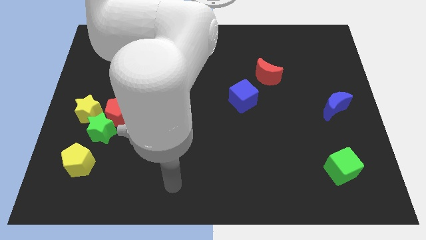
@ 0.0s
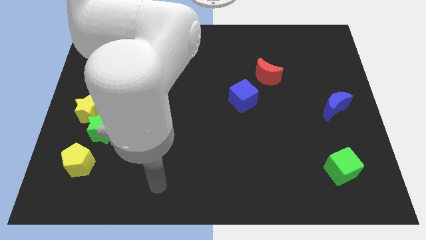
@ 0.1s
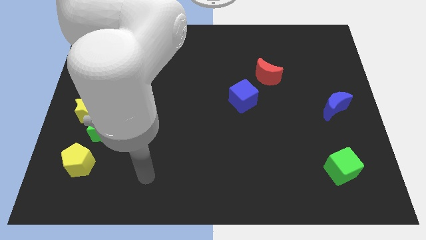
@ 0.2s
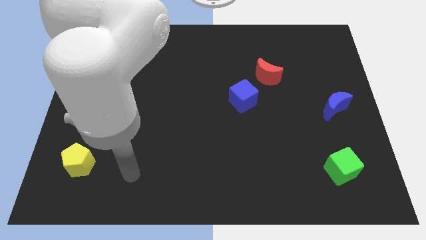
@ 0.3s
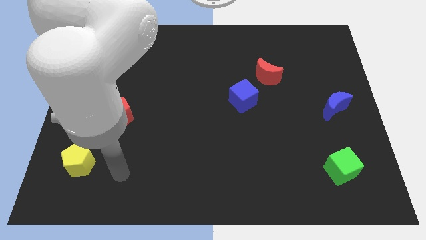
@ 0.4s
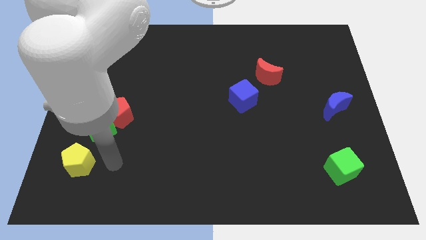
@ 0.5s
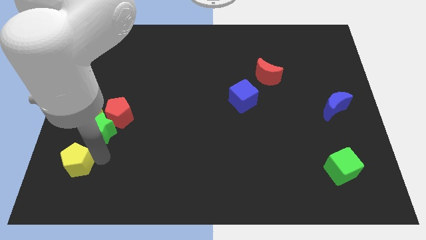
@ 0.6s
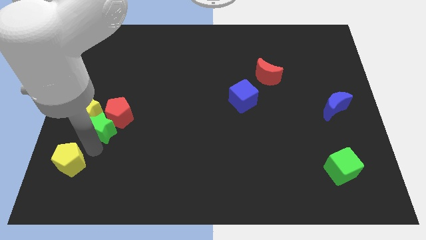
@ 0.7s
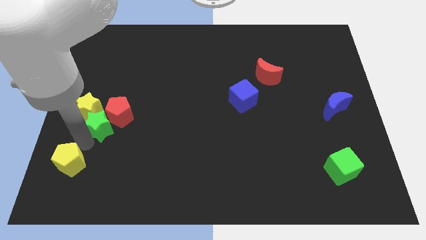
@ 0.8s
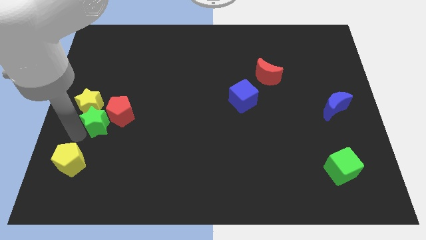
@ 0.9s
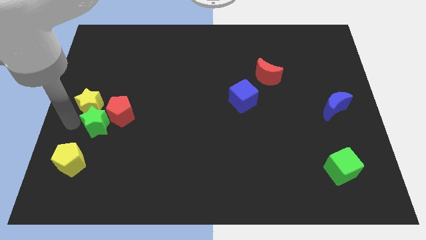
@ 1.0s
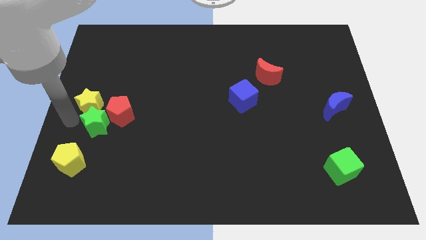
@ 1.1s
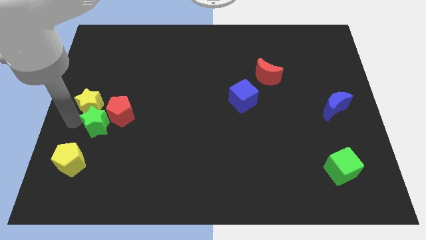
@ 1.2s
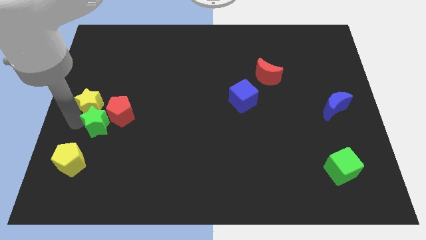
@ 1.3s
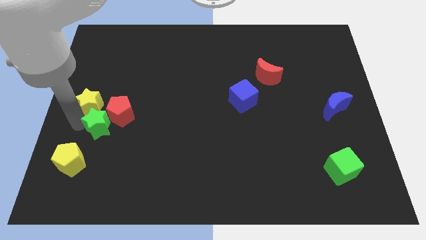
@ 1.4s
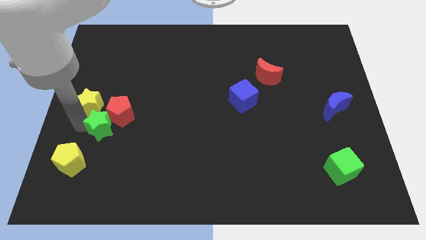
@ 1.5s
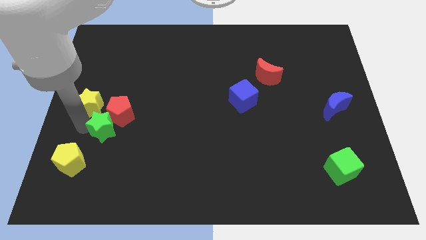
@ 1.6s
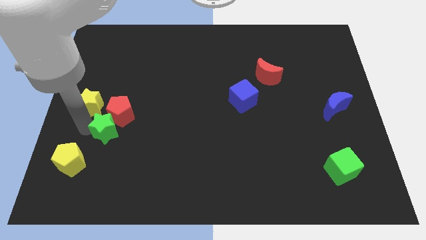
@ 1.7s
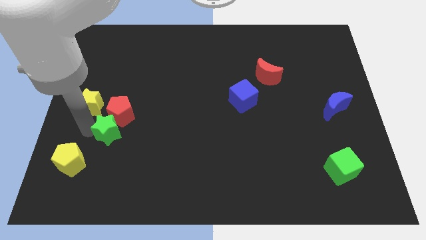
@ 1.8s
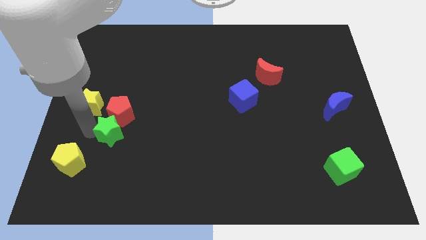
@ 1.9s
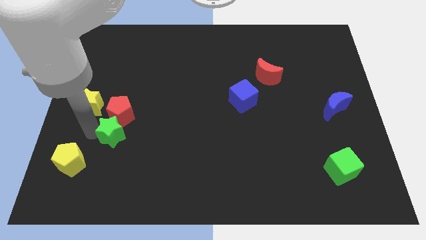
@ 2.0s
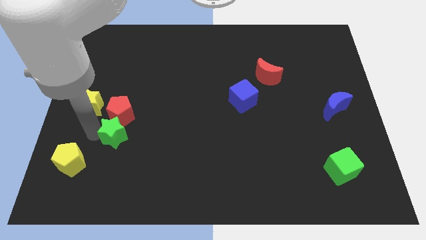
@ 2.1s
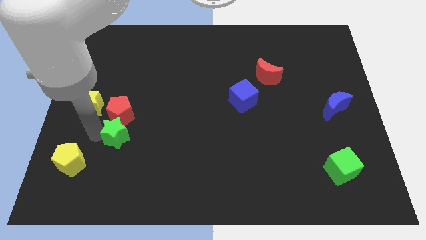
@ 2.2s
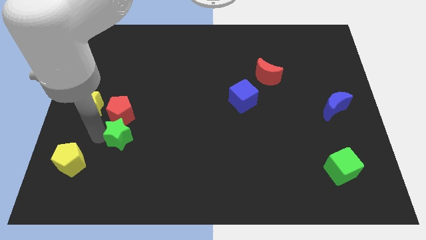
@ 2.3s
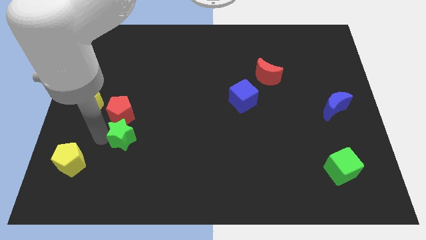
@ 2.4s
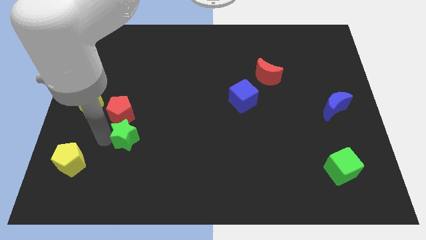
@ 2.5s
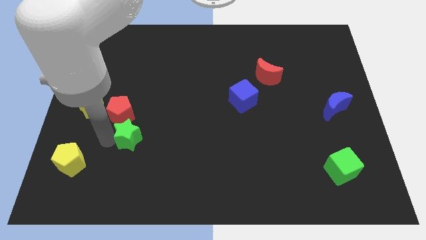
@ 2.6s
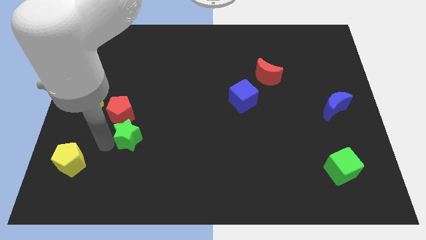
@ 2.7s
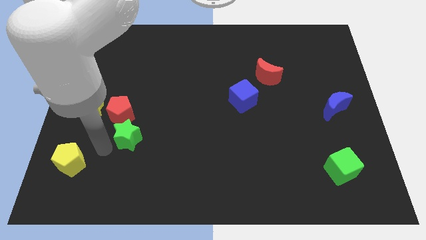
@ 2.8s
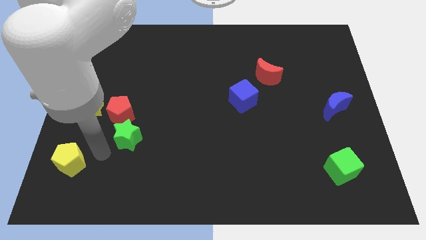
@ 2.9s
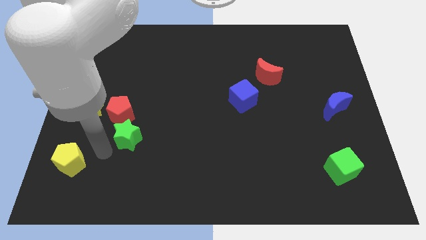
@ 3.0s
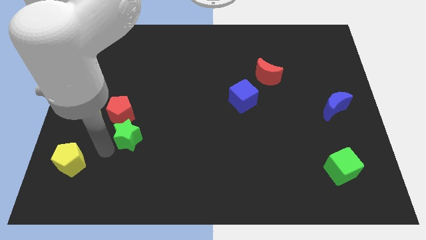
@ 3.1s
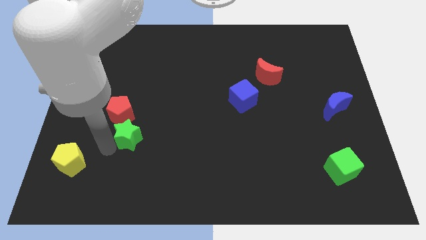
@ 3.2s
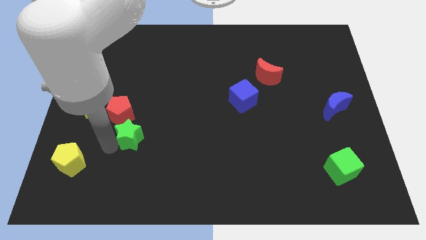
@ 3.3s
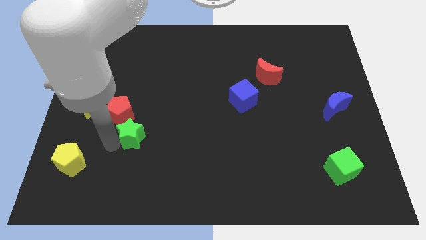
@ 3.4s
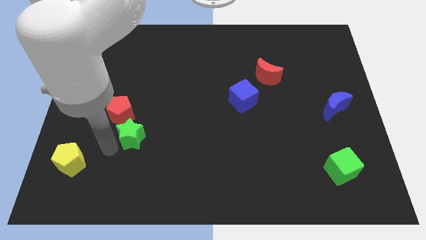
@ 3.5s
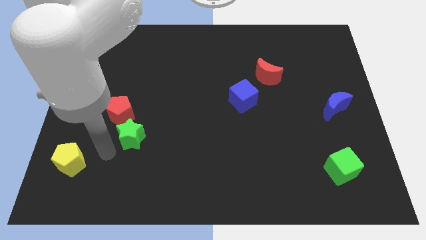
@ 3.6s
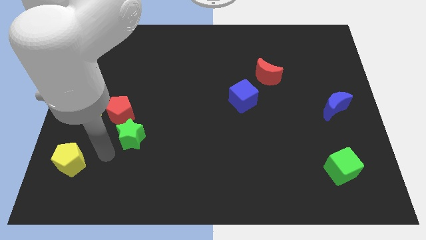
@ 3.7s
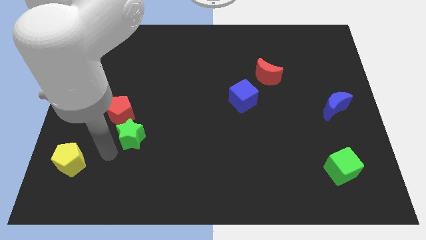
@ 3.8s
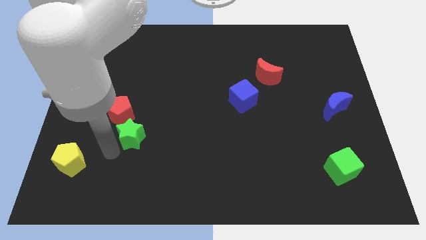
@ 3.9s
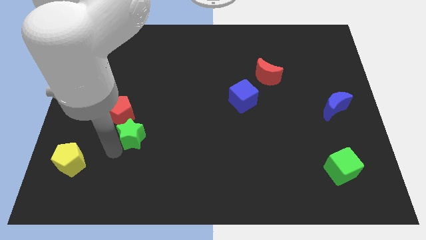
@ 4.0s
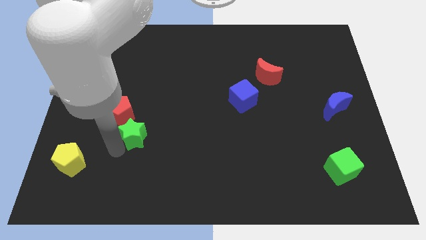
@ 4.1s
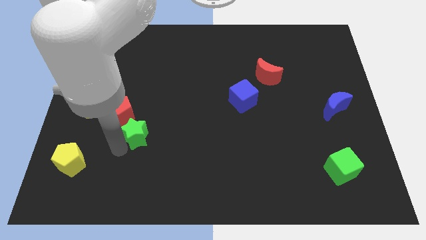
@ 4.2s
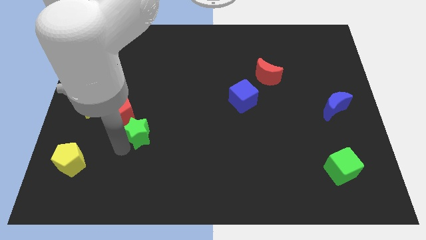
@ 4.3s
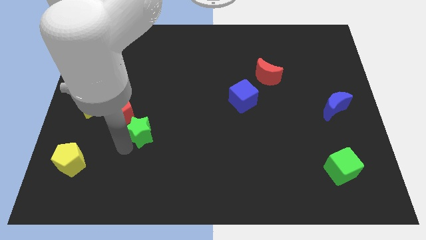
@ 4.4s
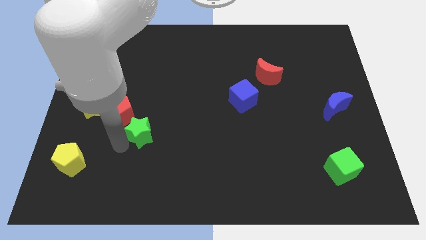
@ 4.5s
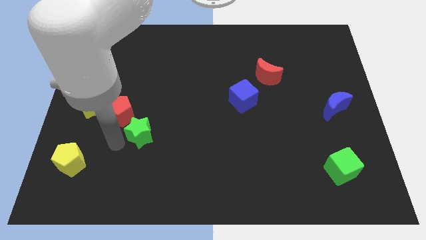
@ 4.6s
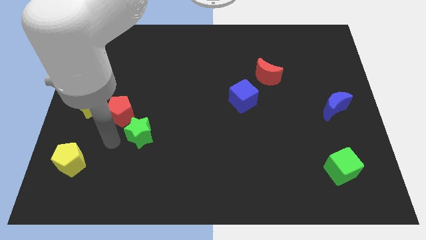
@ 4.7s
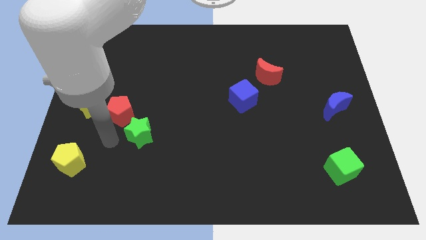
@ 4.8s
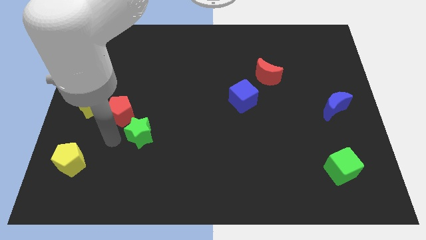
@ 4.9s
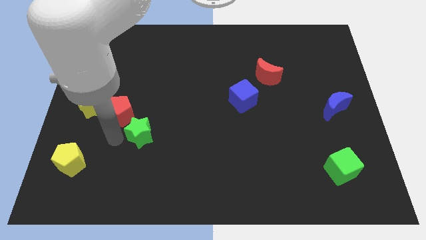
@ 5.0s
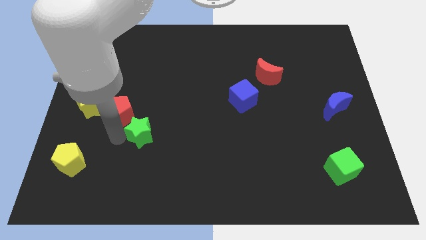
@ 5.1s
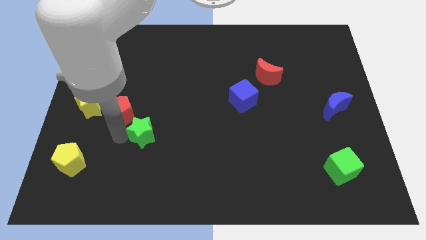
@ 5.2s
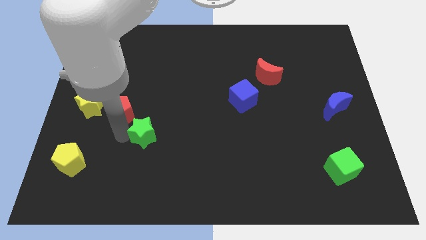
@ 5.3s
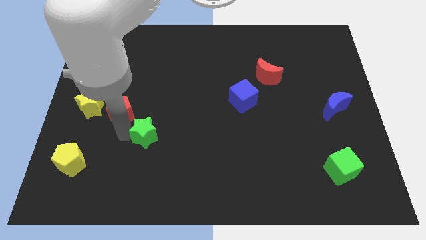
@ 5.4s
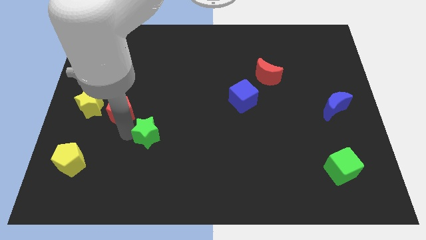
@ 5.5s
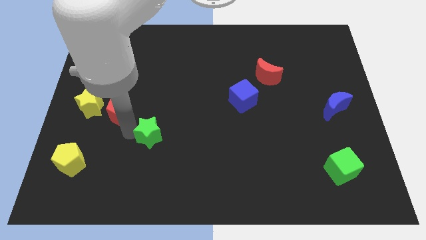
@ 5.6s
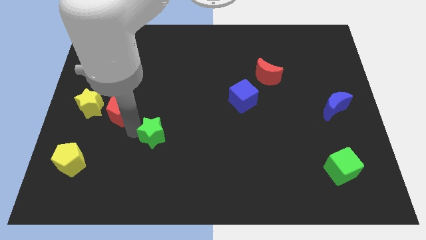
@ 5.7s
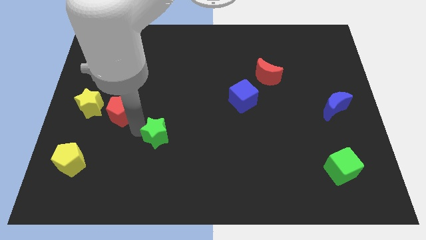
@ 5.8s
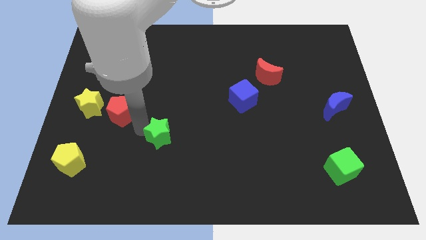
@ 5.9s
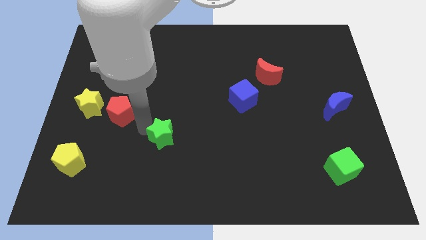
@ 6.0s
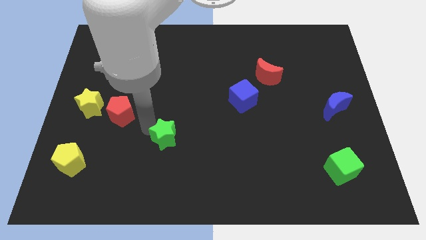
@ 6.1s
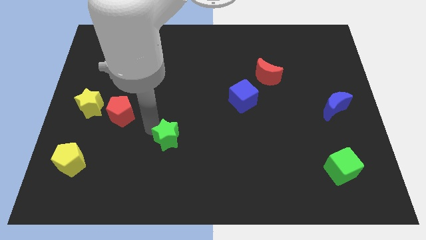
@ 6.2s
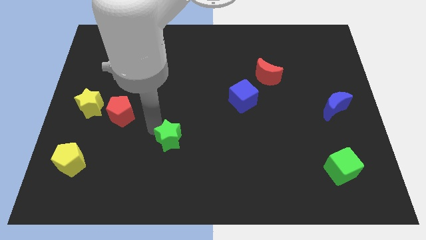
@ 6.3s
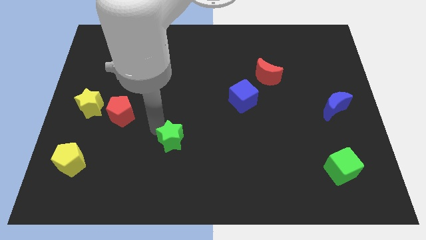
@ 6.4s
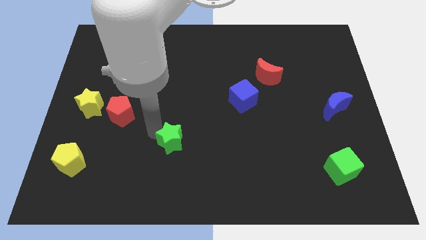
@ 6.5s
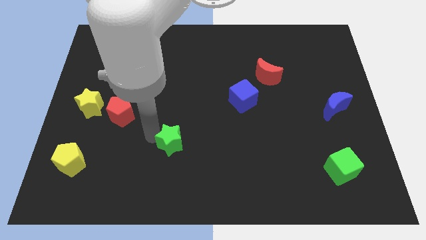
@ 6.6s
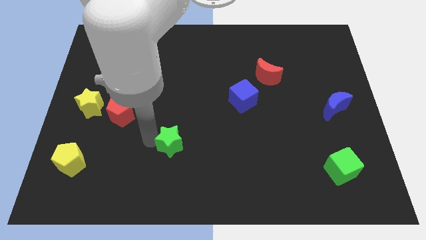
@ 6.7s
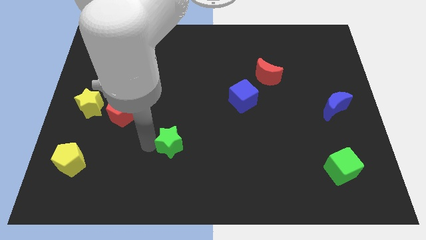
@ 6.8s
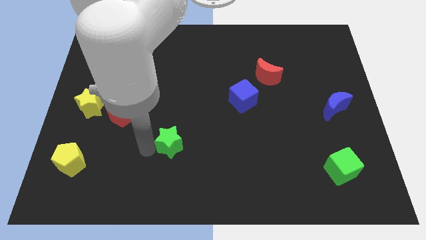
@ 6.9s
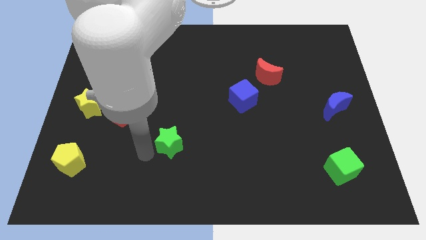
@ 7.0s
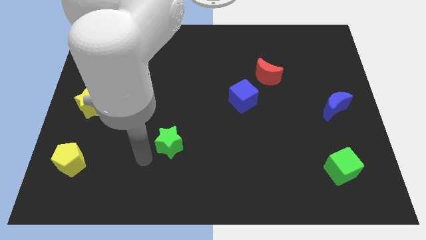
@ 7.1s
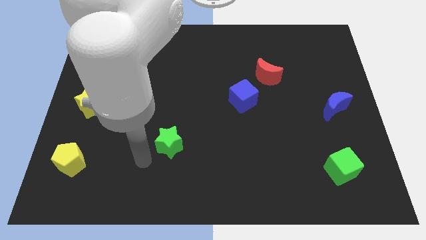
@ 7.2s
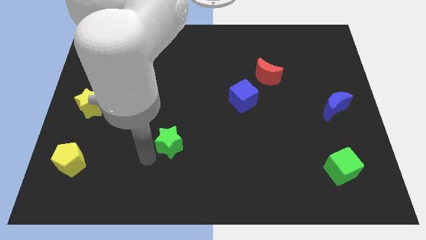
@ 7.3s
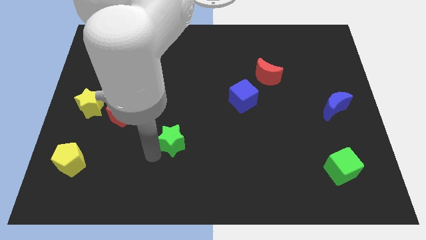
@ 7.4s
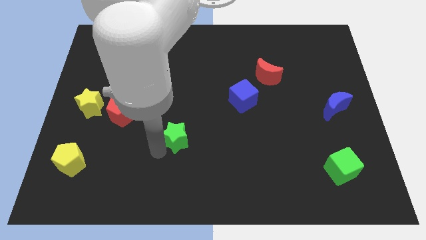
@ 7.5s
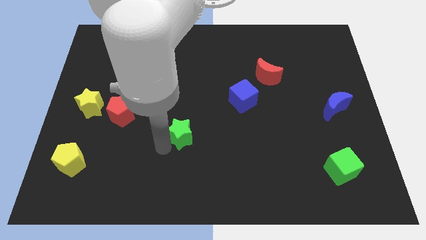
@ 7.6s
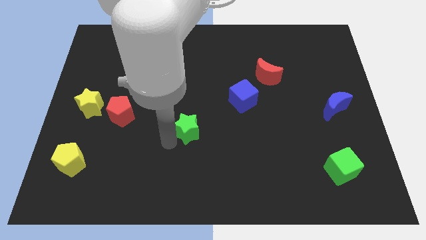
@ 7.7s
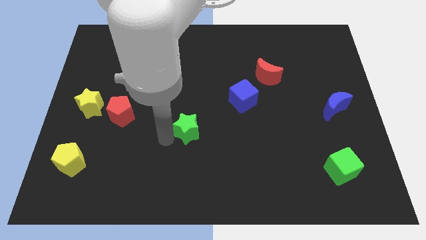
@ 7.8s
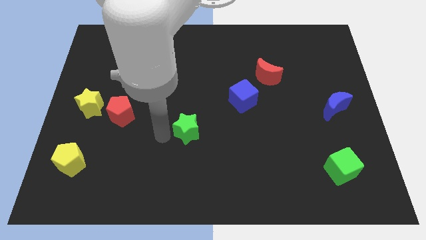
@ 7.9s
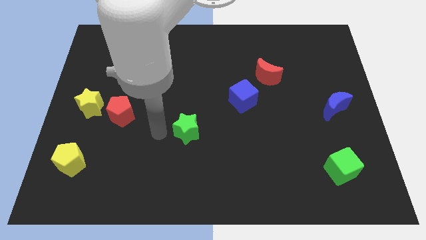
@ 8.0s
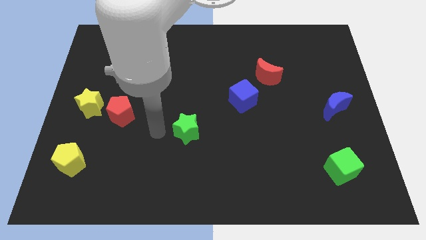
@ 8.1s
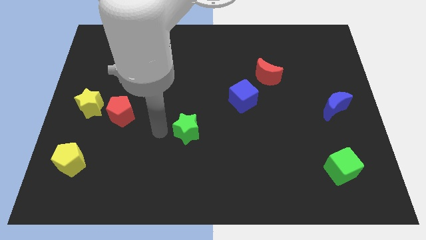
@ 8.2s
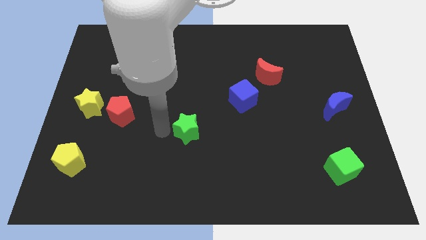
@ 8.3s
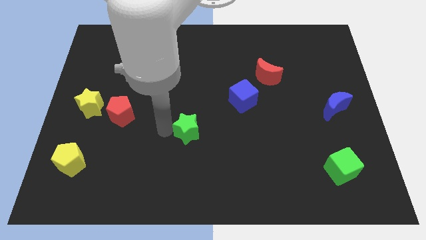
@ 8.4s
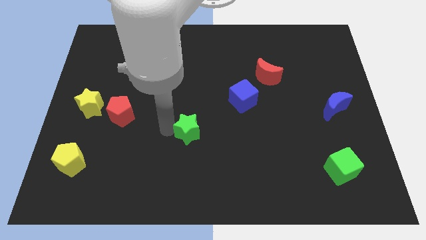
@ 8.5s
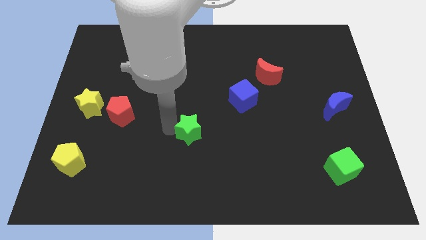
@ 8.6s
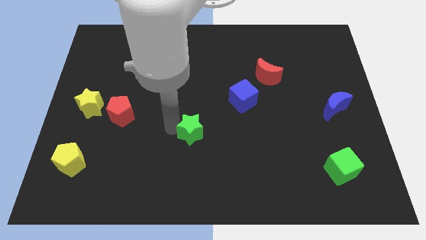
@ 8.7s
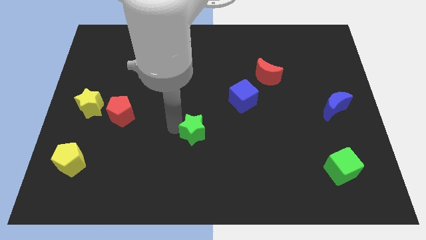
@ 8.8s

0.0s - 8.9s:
move the green star right
